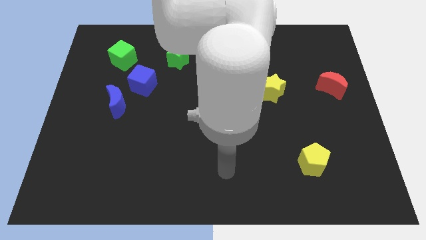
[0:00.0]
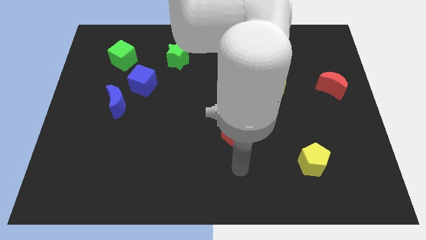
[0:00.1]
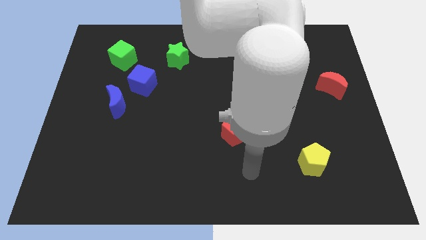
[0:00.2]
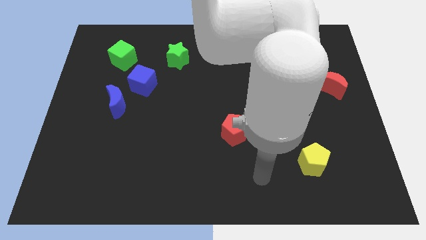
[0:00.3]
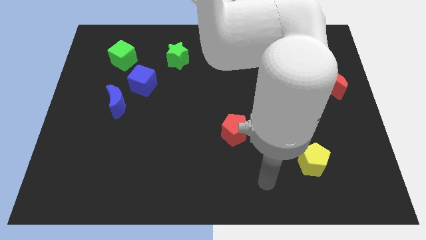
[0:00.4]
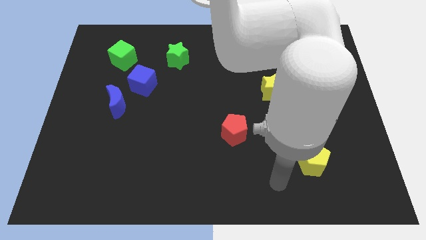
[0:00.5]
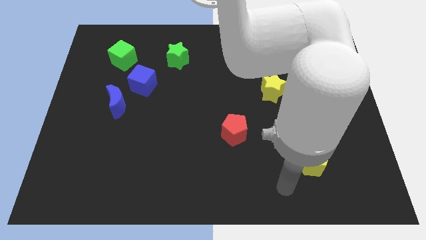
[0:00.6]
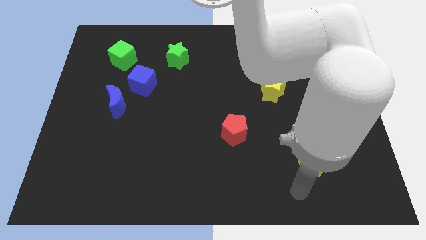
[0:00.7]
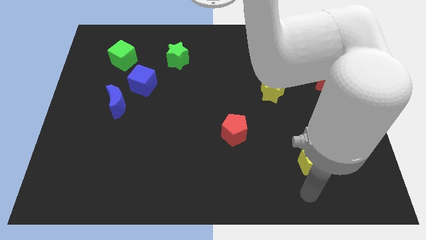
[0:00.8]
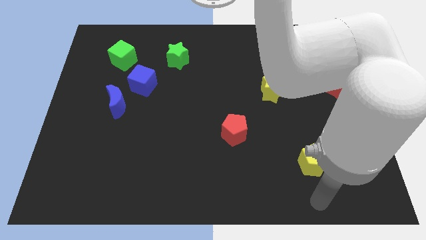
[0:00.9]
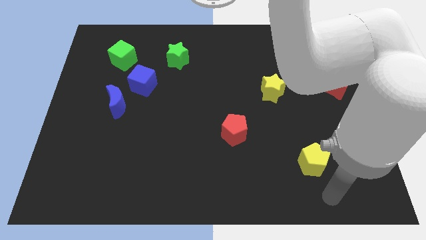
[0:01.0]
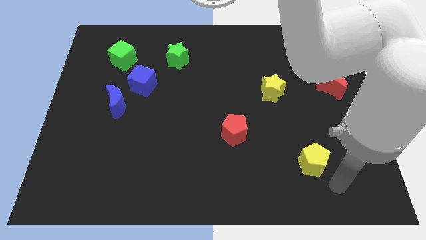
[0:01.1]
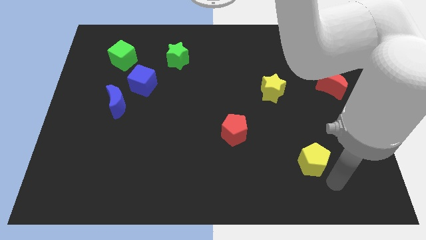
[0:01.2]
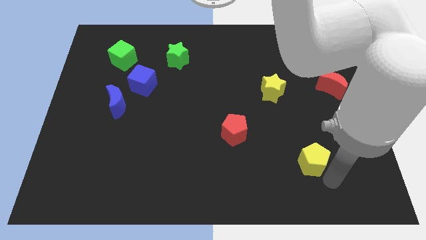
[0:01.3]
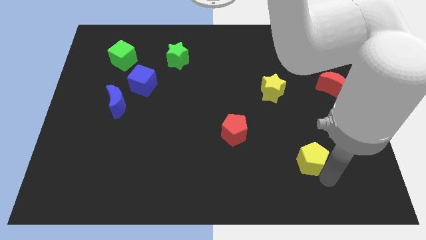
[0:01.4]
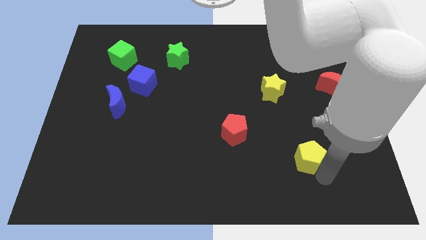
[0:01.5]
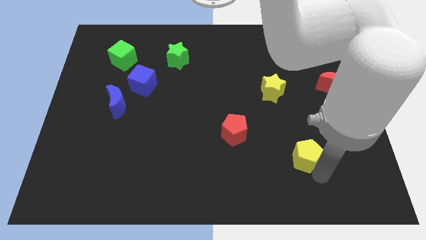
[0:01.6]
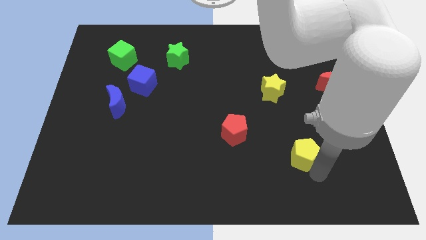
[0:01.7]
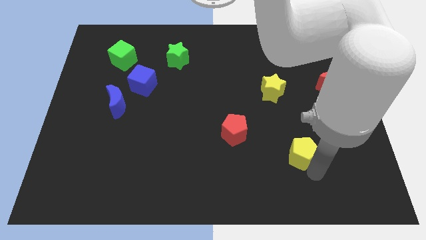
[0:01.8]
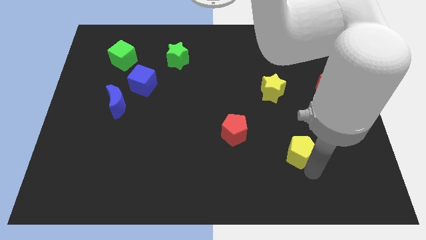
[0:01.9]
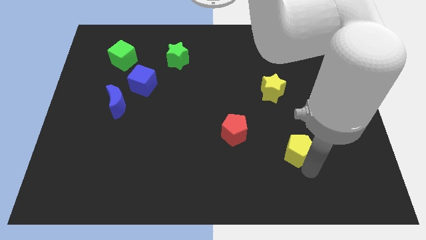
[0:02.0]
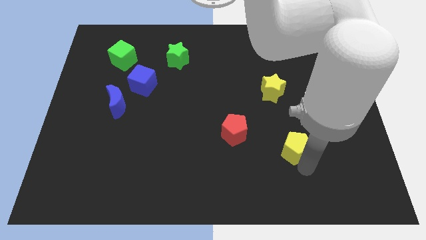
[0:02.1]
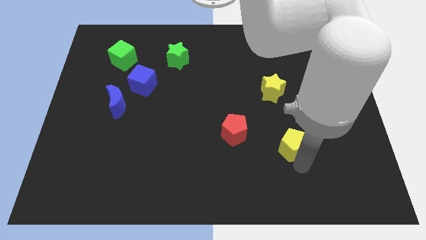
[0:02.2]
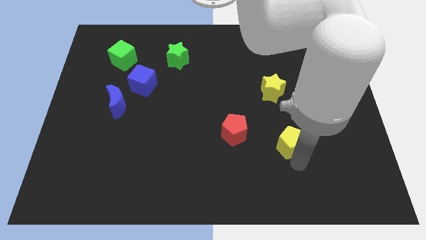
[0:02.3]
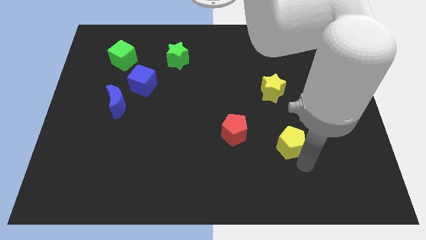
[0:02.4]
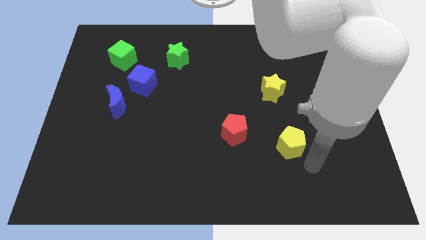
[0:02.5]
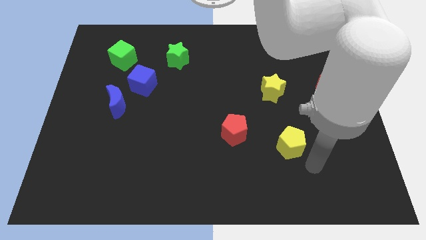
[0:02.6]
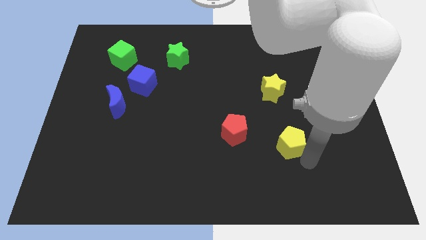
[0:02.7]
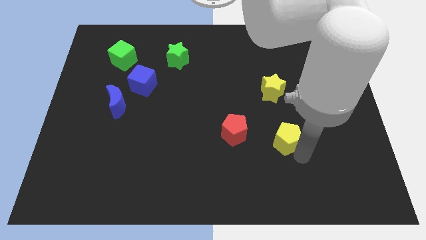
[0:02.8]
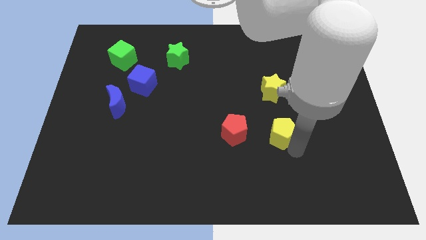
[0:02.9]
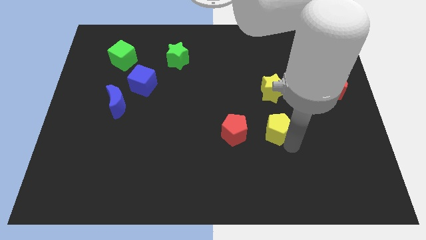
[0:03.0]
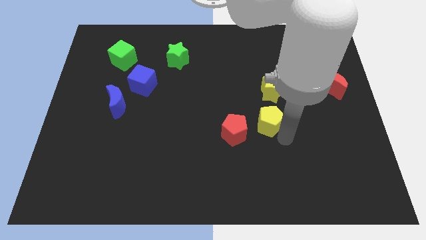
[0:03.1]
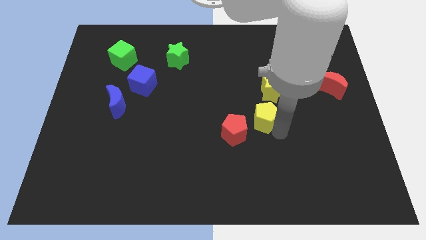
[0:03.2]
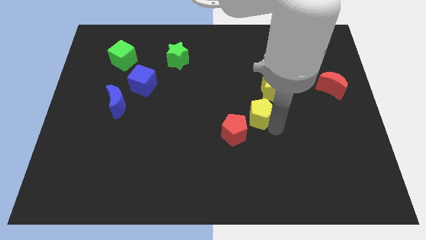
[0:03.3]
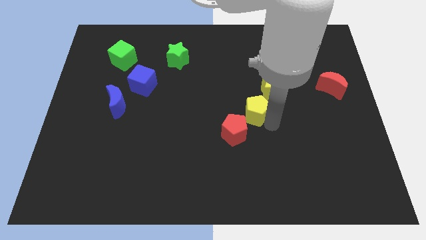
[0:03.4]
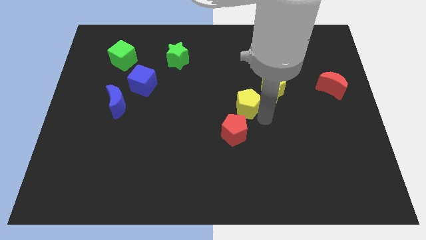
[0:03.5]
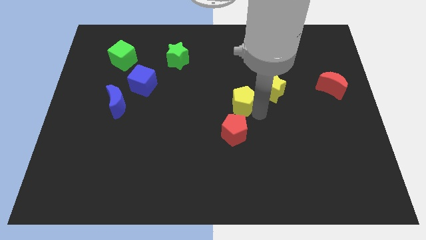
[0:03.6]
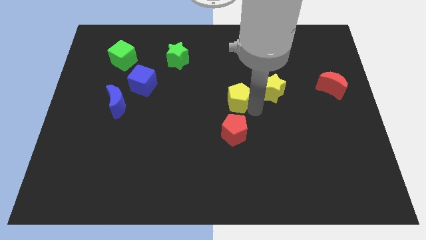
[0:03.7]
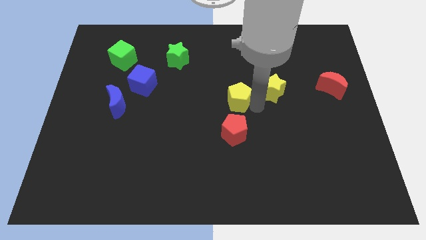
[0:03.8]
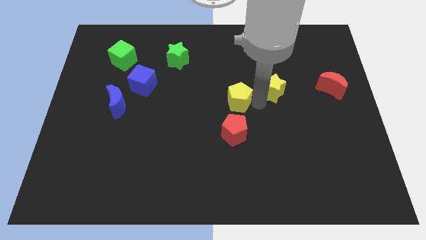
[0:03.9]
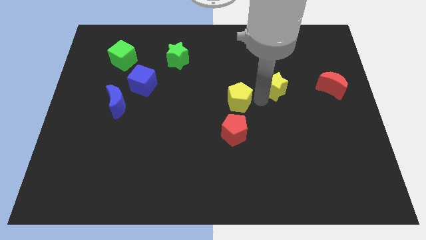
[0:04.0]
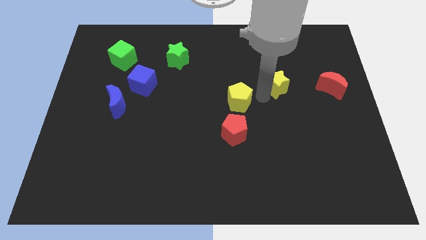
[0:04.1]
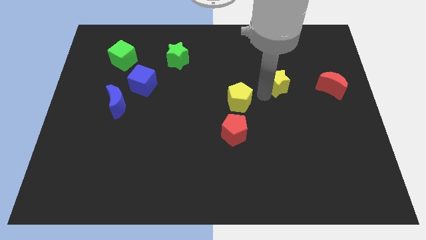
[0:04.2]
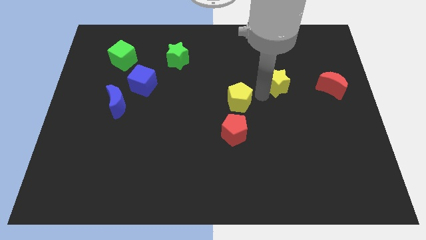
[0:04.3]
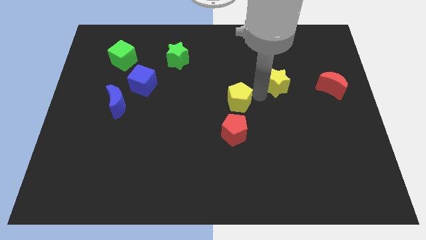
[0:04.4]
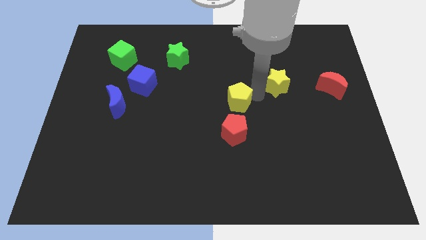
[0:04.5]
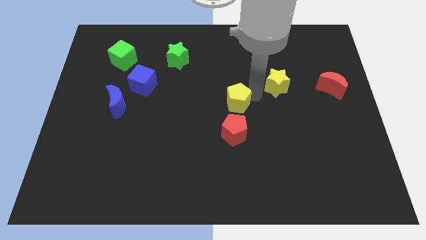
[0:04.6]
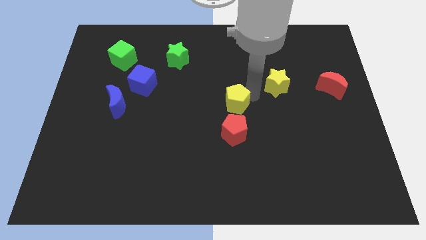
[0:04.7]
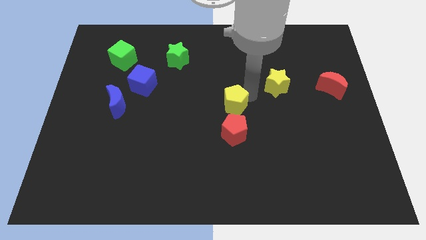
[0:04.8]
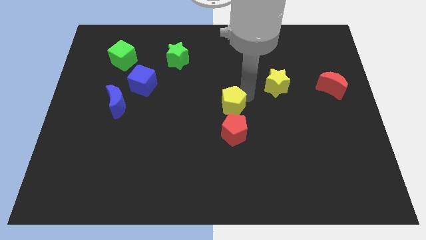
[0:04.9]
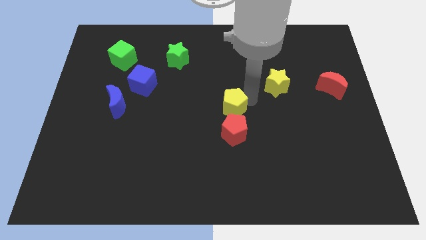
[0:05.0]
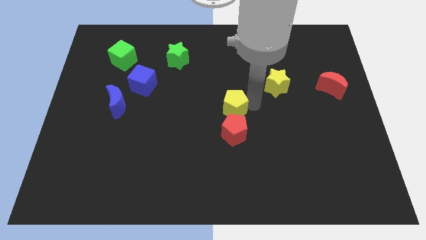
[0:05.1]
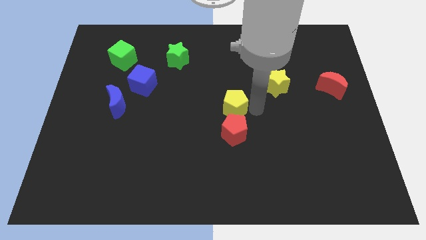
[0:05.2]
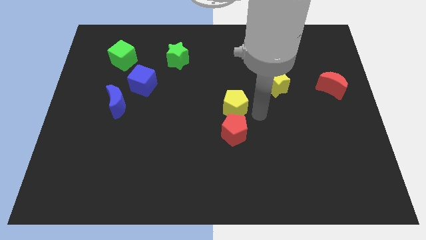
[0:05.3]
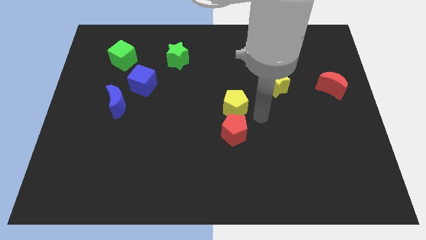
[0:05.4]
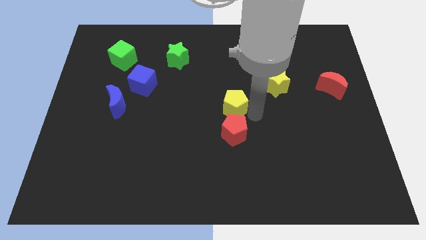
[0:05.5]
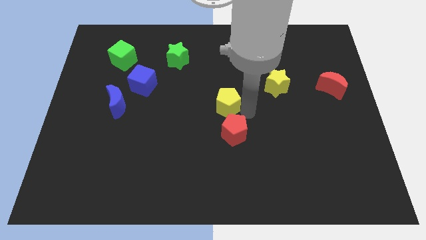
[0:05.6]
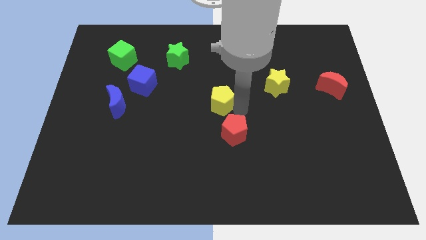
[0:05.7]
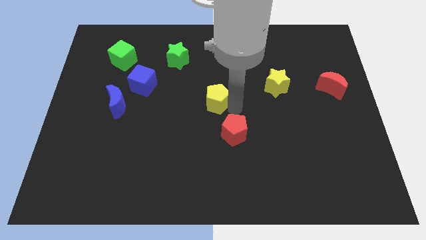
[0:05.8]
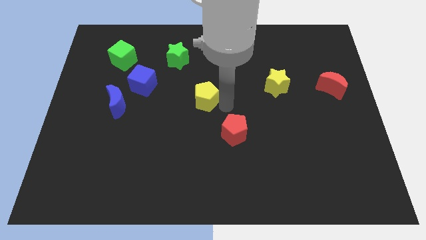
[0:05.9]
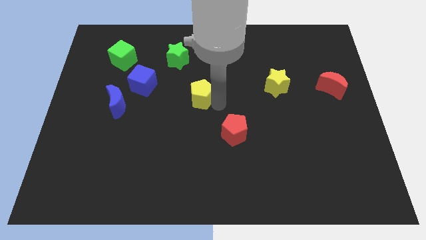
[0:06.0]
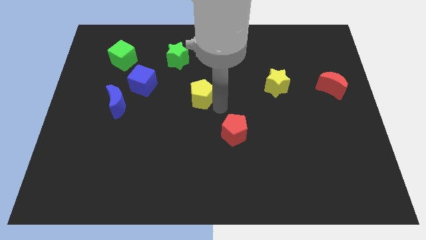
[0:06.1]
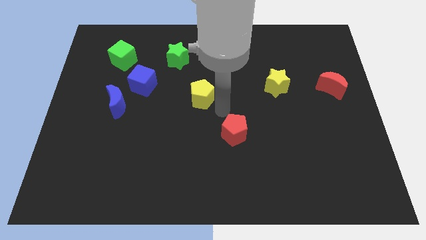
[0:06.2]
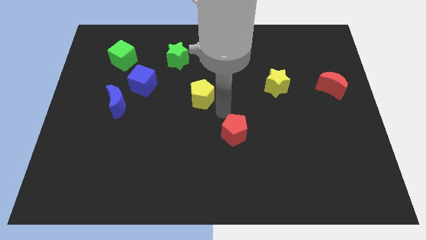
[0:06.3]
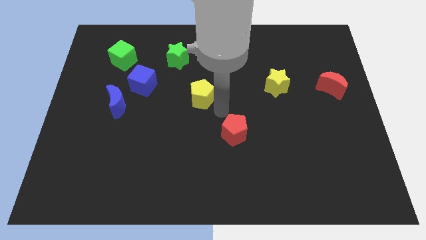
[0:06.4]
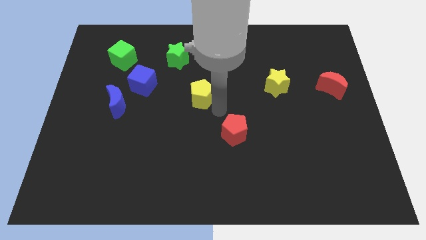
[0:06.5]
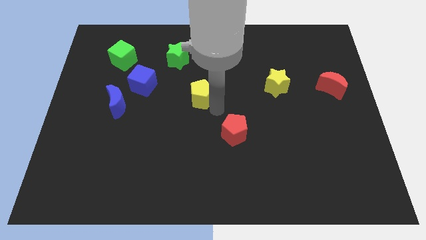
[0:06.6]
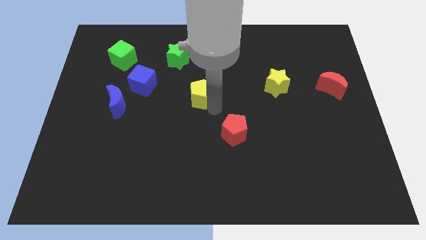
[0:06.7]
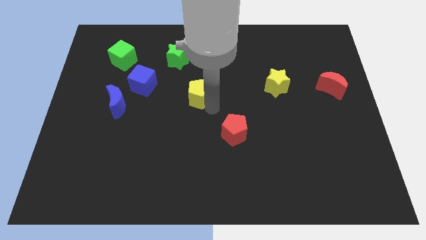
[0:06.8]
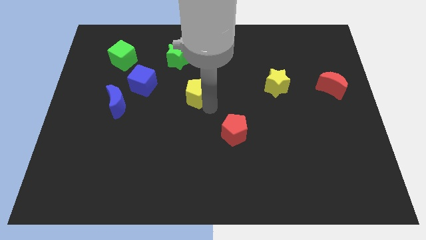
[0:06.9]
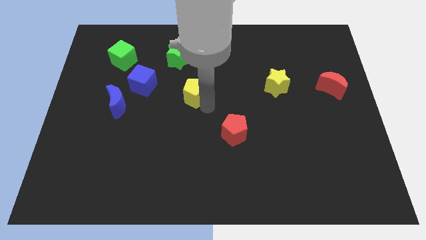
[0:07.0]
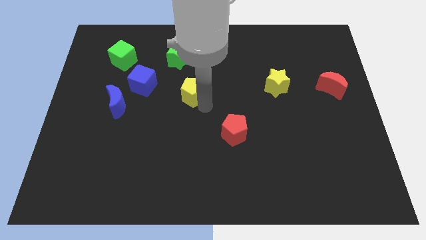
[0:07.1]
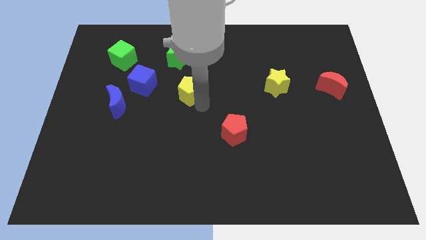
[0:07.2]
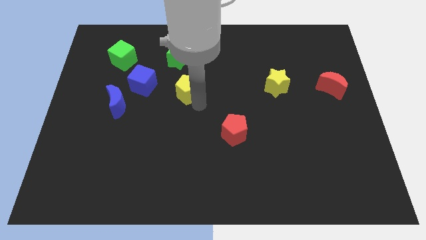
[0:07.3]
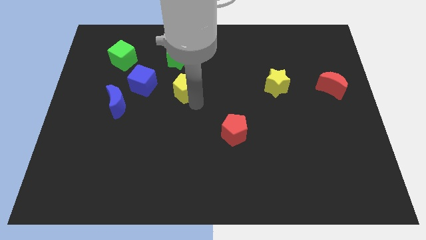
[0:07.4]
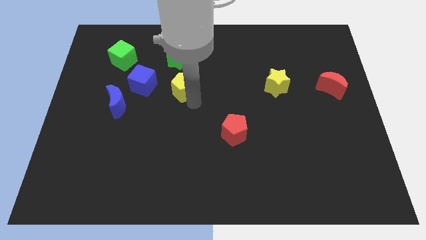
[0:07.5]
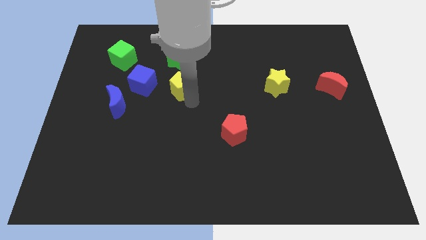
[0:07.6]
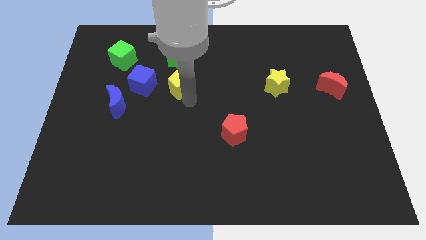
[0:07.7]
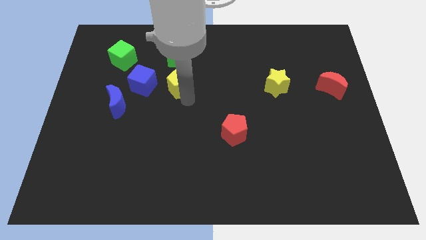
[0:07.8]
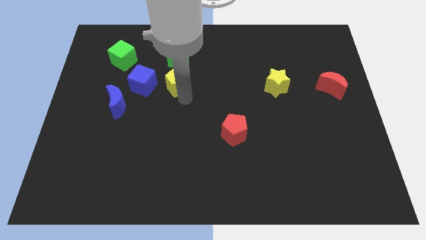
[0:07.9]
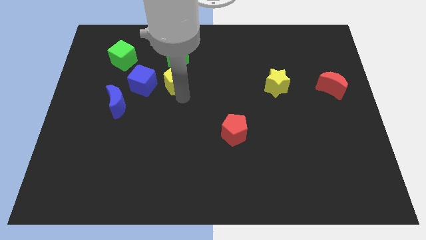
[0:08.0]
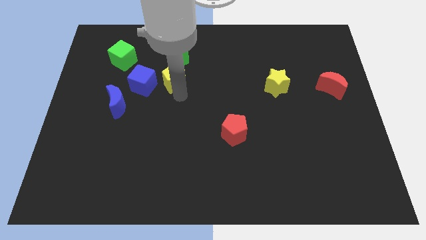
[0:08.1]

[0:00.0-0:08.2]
slide the yellow pentagon diagonally up and to the right of the blue cube
